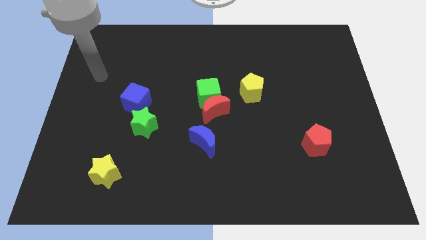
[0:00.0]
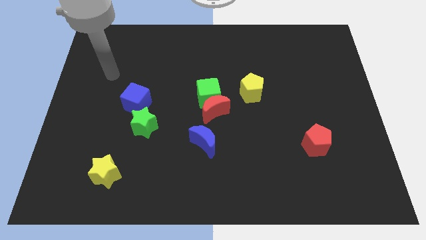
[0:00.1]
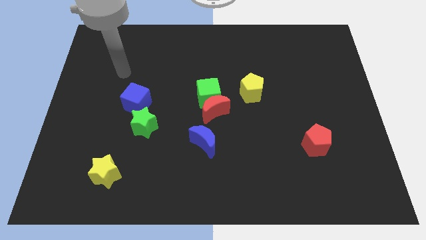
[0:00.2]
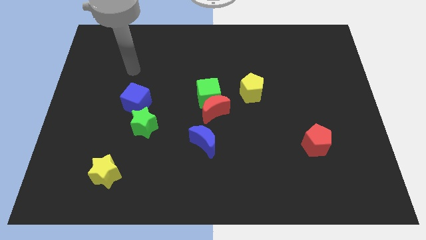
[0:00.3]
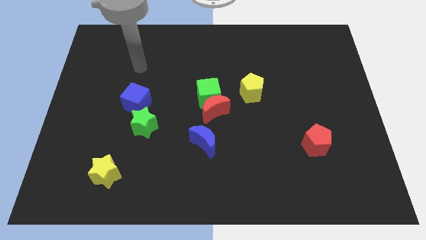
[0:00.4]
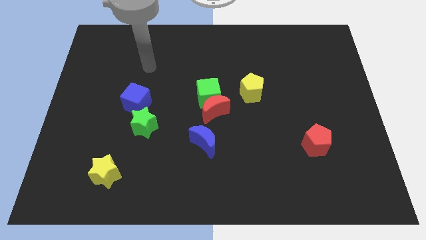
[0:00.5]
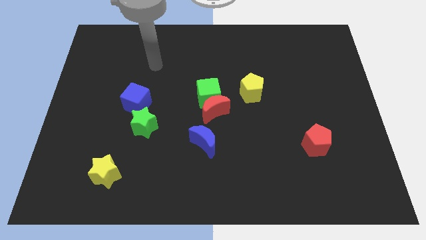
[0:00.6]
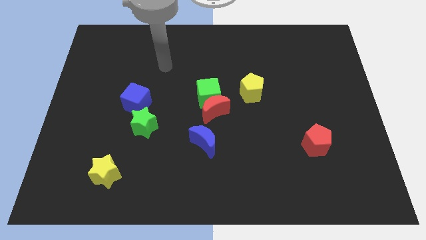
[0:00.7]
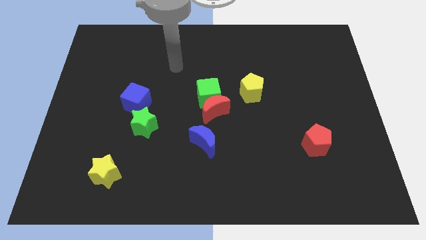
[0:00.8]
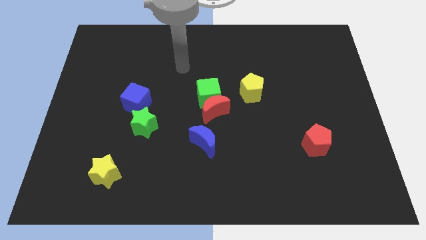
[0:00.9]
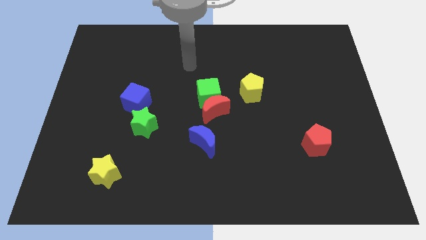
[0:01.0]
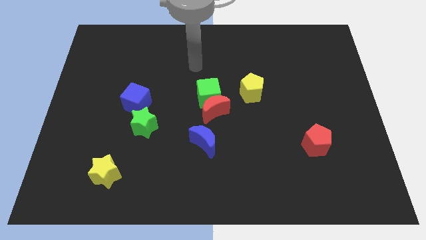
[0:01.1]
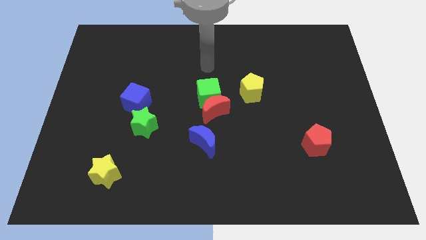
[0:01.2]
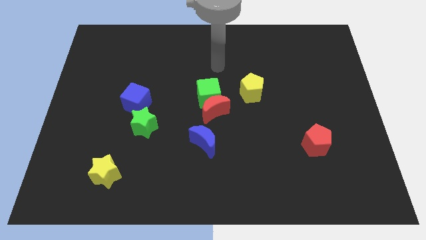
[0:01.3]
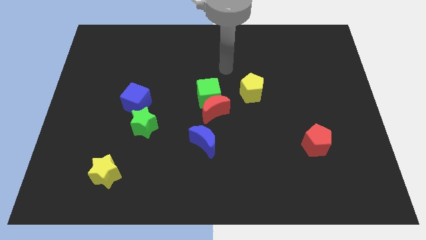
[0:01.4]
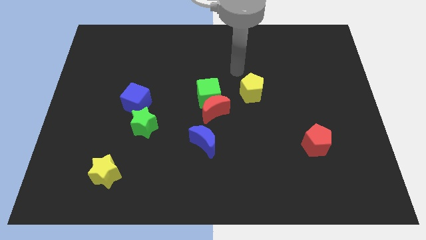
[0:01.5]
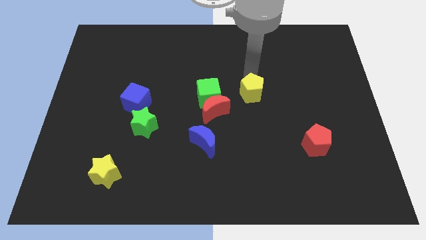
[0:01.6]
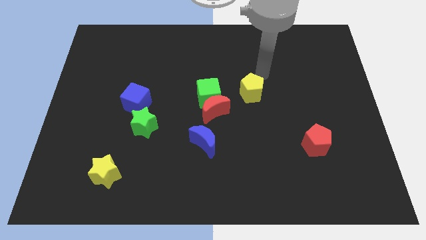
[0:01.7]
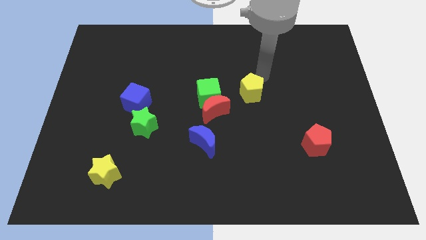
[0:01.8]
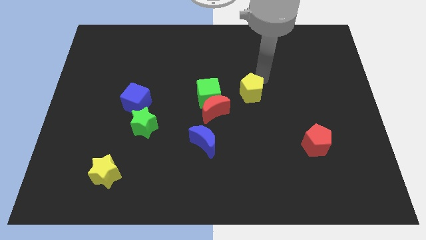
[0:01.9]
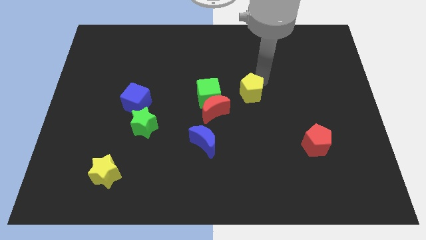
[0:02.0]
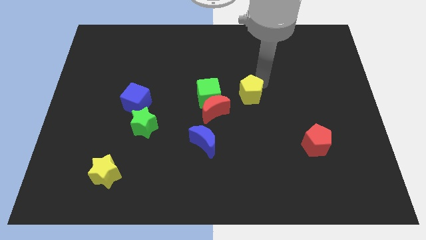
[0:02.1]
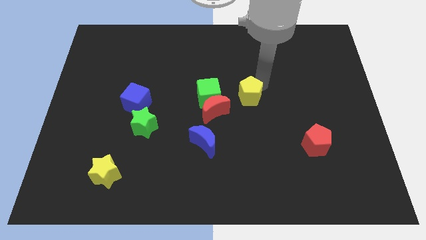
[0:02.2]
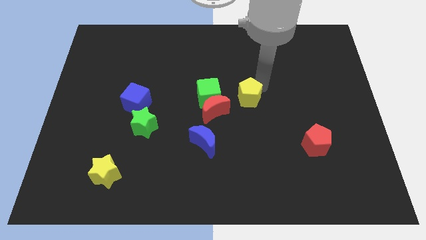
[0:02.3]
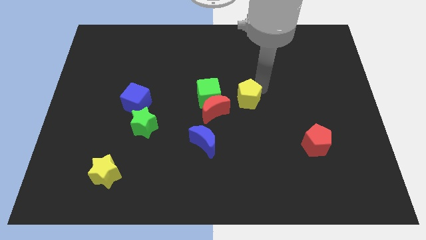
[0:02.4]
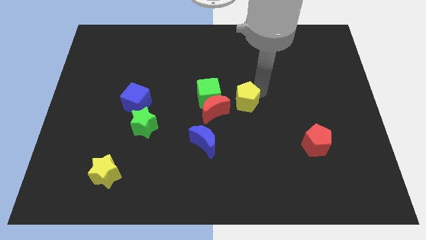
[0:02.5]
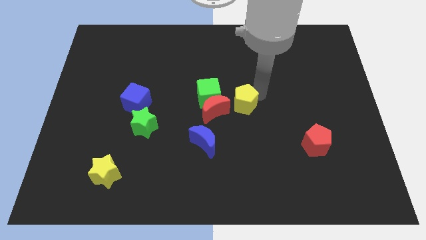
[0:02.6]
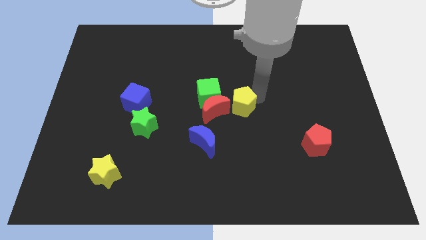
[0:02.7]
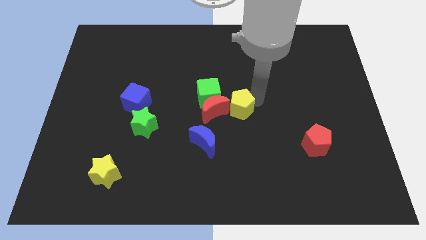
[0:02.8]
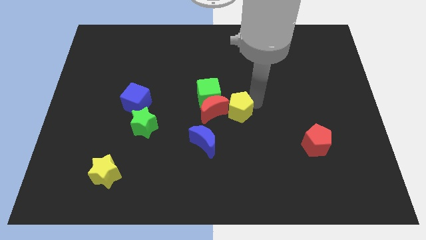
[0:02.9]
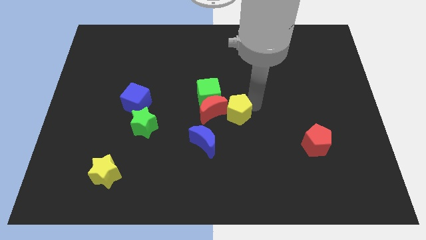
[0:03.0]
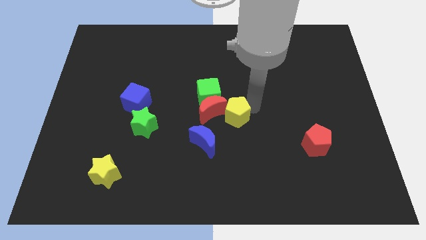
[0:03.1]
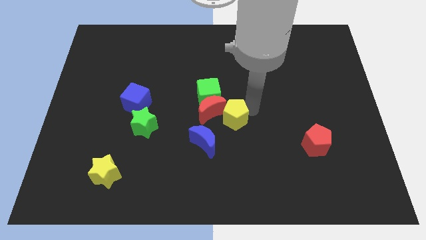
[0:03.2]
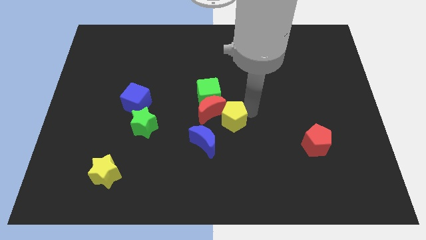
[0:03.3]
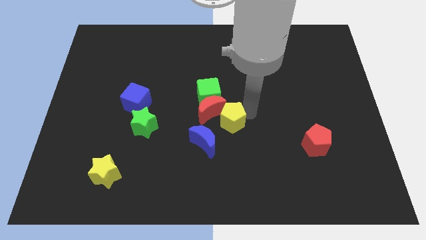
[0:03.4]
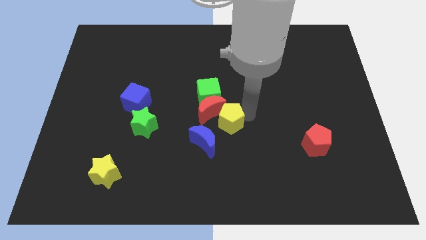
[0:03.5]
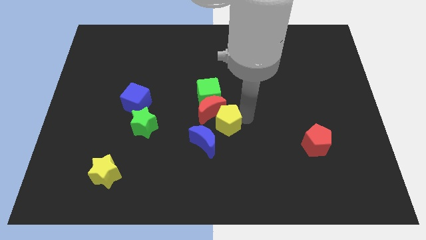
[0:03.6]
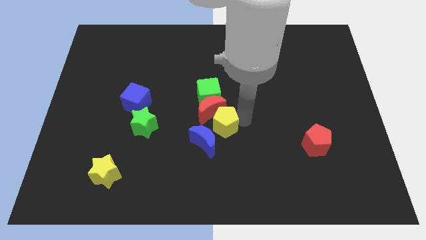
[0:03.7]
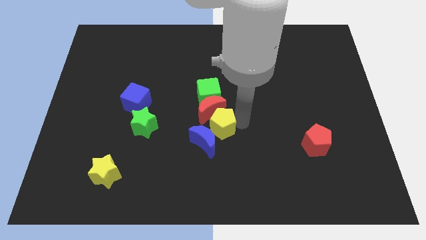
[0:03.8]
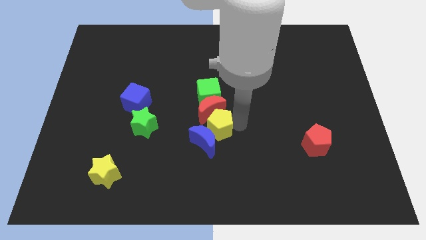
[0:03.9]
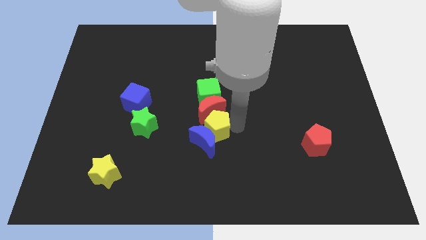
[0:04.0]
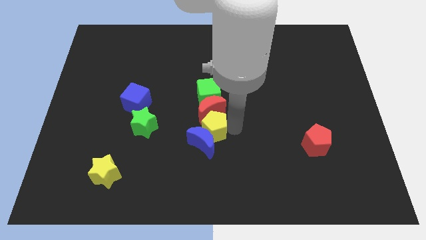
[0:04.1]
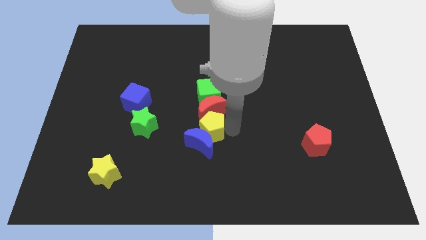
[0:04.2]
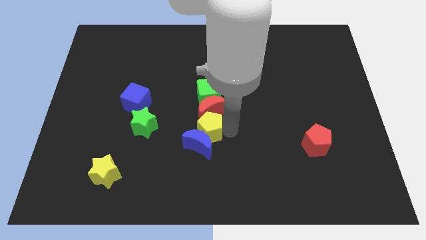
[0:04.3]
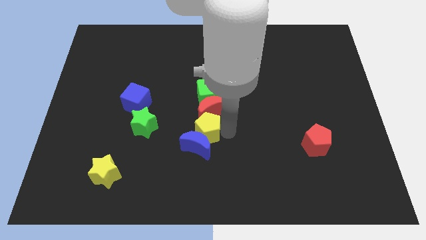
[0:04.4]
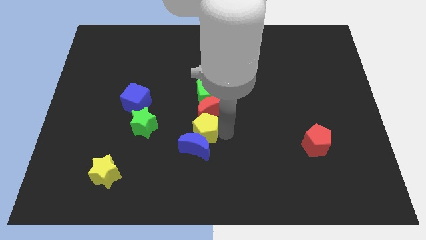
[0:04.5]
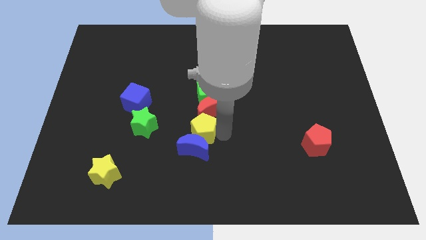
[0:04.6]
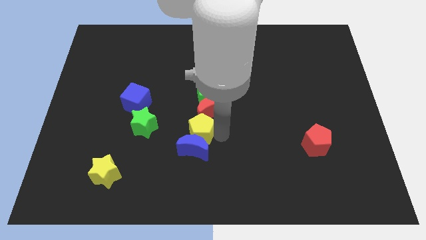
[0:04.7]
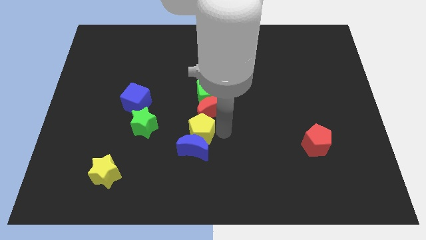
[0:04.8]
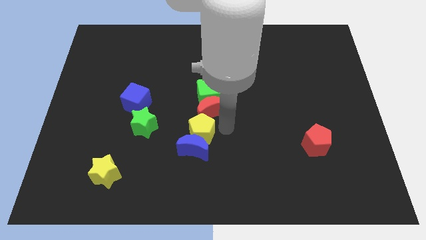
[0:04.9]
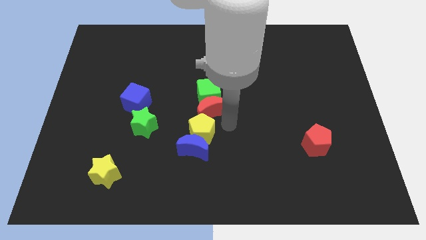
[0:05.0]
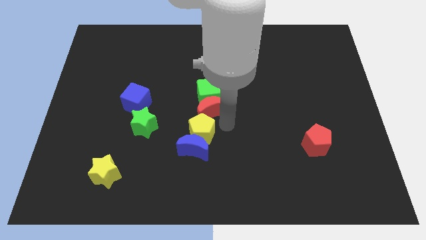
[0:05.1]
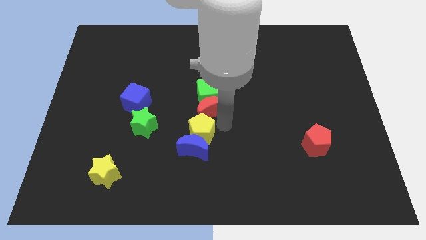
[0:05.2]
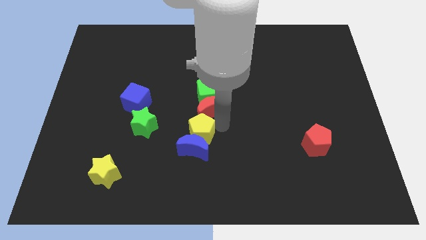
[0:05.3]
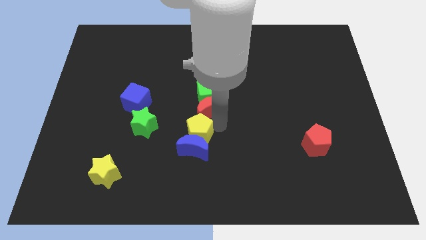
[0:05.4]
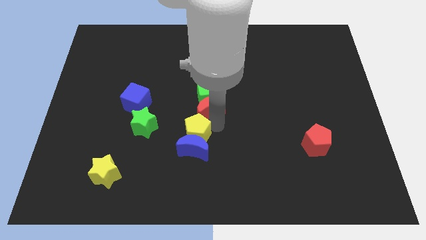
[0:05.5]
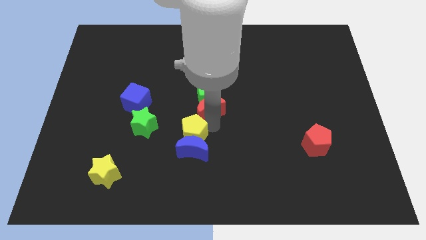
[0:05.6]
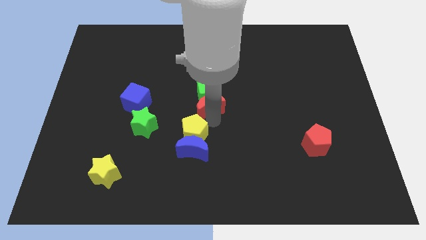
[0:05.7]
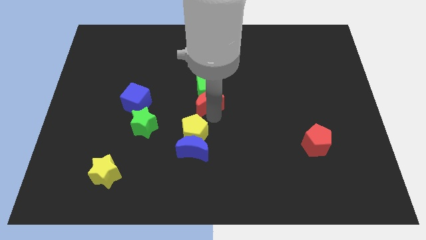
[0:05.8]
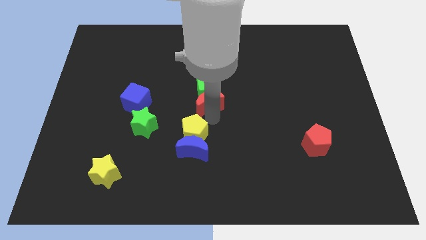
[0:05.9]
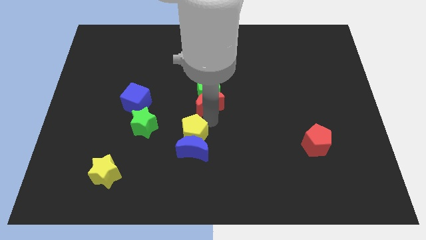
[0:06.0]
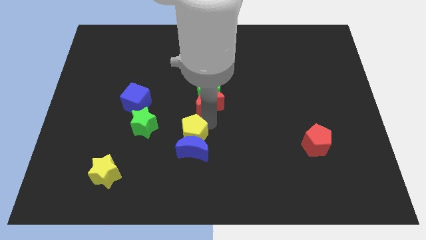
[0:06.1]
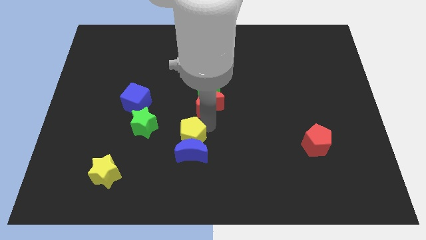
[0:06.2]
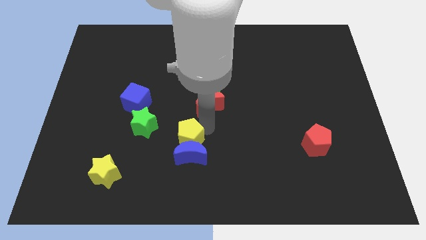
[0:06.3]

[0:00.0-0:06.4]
push the yellow pentagon diagonally down and to the left

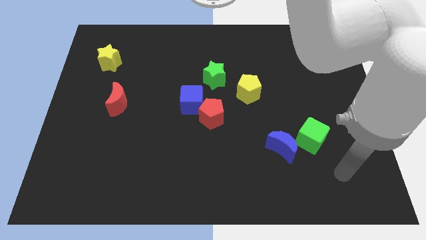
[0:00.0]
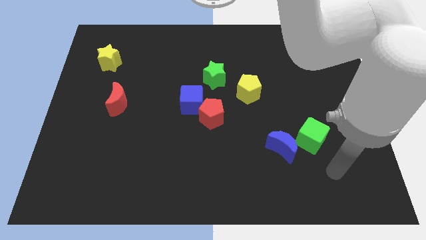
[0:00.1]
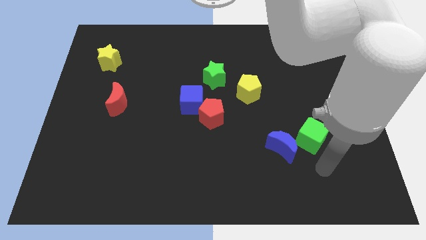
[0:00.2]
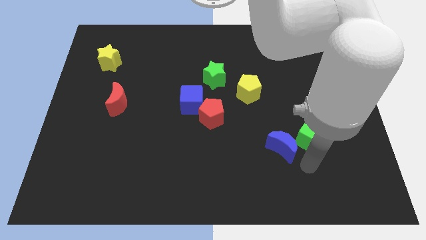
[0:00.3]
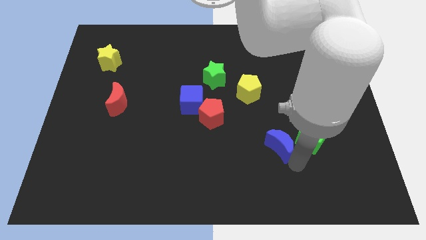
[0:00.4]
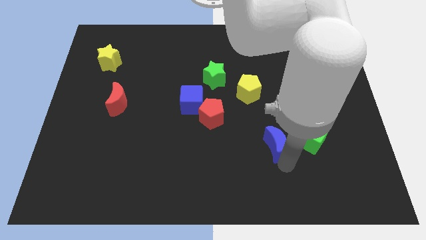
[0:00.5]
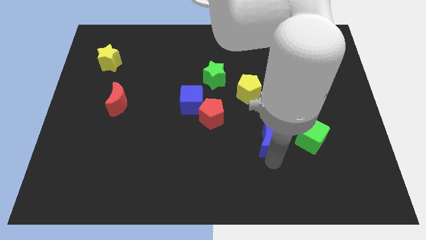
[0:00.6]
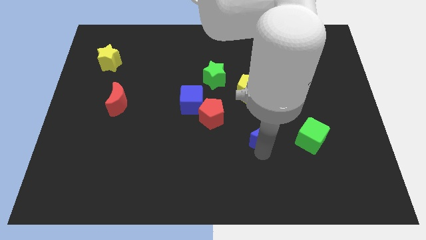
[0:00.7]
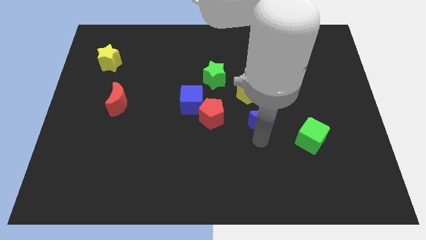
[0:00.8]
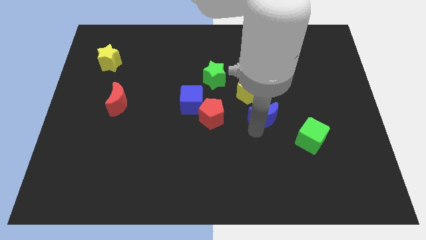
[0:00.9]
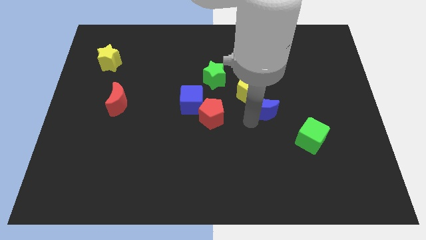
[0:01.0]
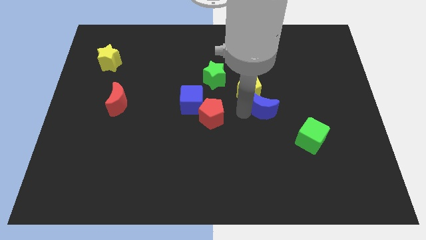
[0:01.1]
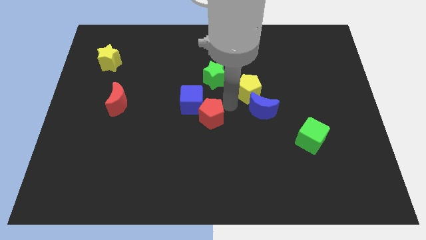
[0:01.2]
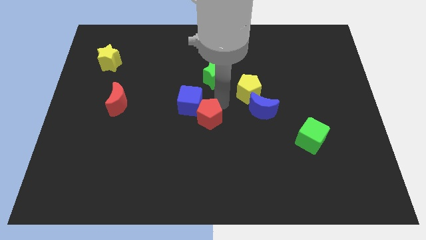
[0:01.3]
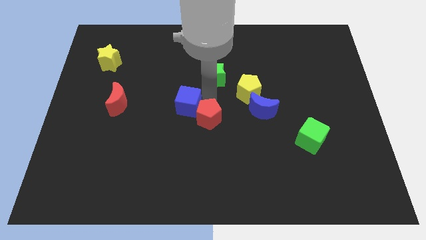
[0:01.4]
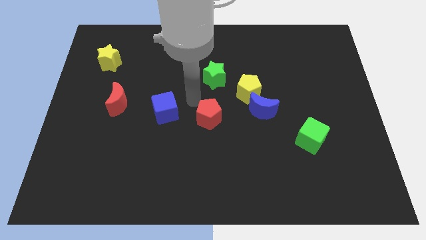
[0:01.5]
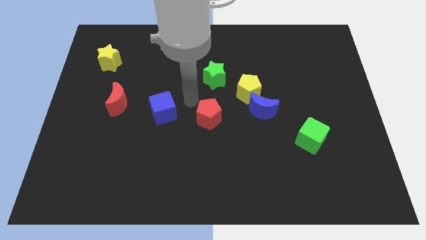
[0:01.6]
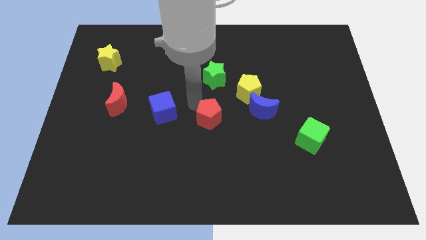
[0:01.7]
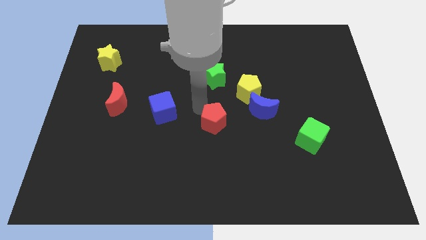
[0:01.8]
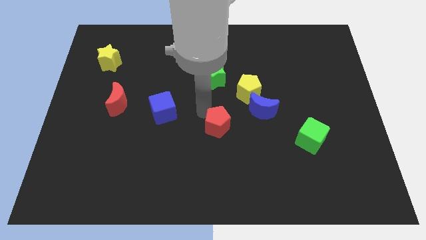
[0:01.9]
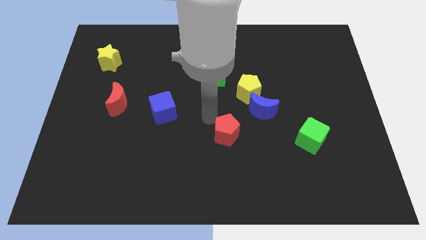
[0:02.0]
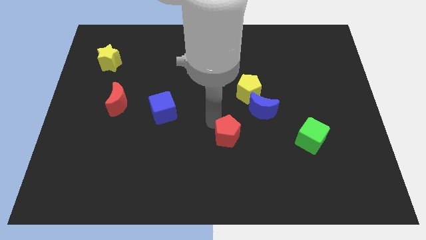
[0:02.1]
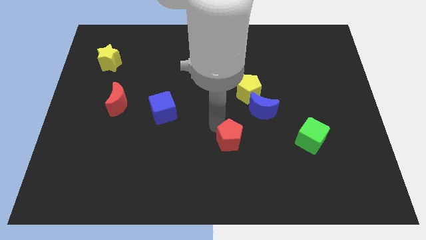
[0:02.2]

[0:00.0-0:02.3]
slide the red pentagon somewhat down and to the right
